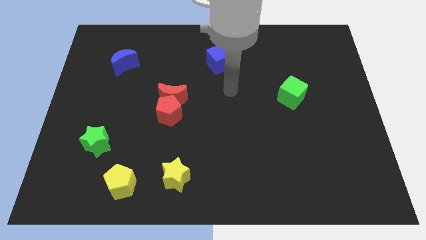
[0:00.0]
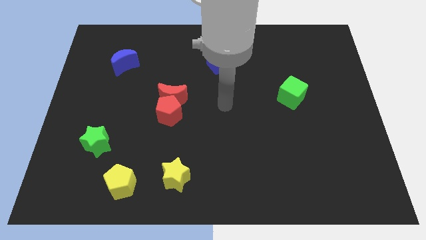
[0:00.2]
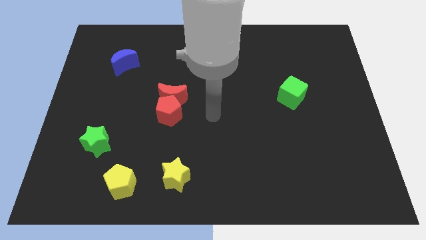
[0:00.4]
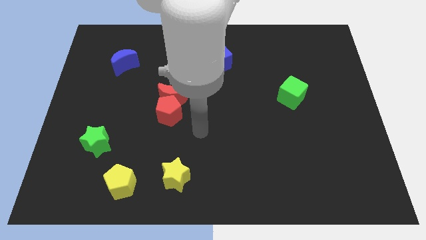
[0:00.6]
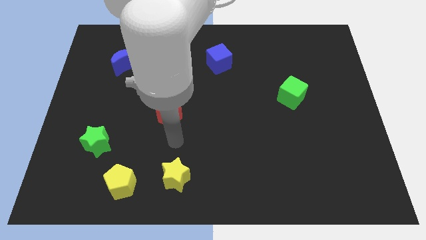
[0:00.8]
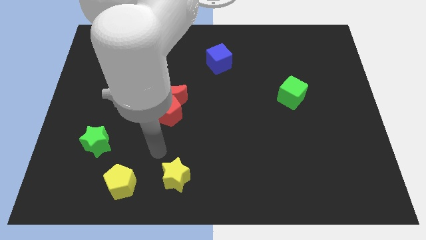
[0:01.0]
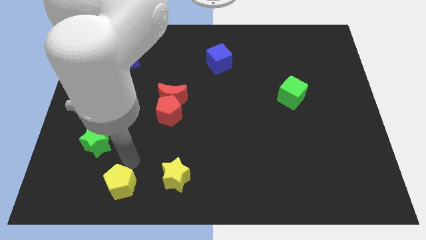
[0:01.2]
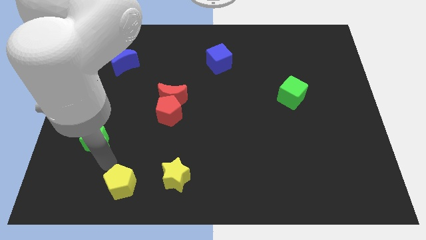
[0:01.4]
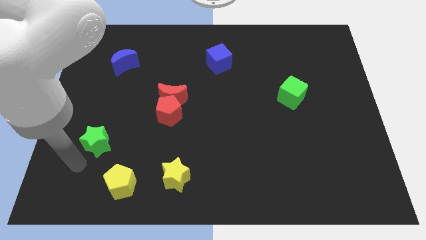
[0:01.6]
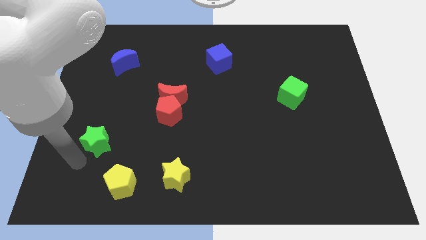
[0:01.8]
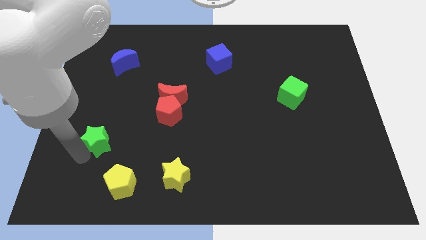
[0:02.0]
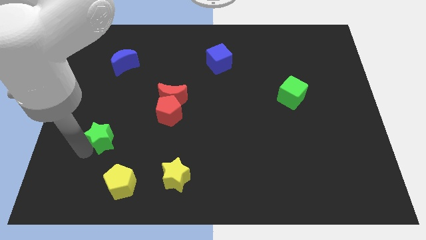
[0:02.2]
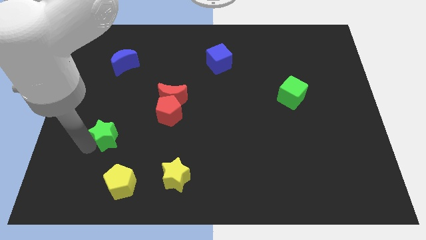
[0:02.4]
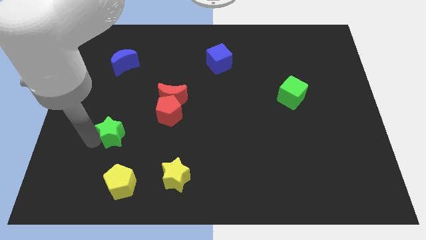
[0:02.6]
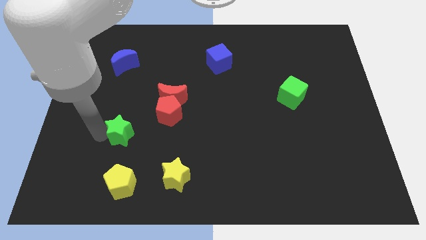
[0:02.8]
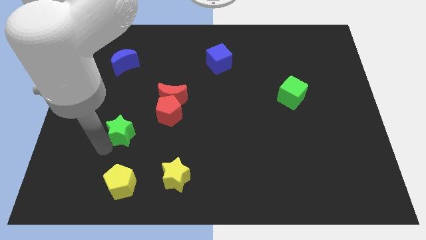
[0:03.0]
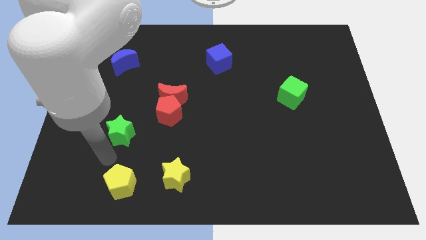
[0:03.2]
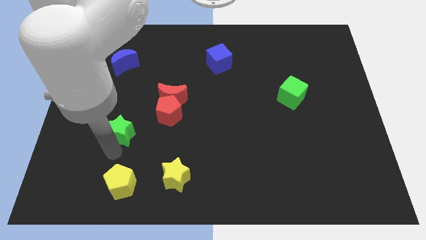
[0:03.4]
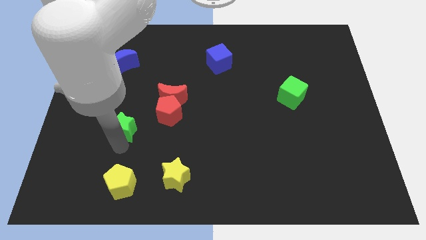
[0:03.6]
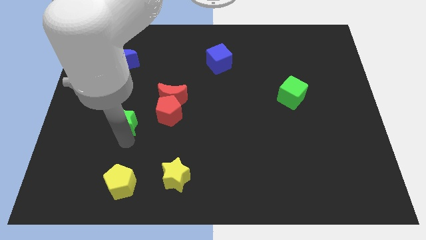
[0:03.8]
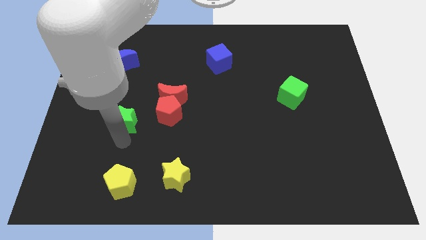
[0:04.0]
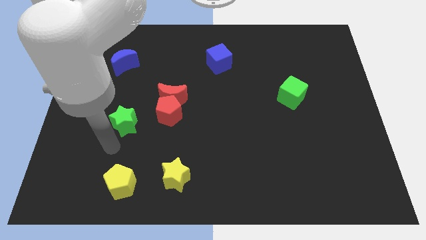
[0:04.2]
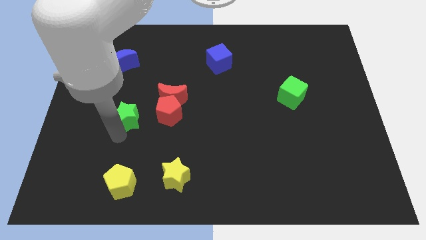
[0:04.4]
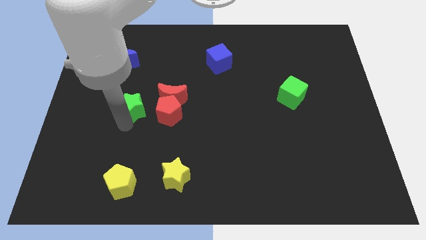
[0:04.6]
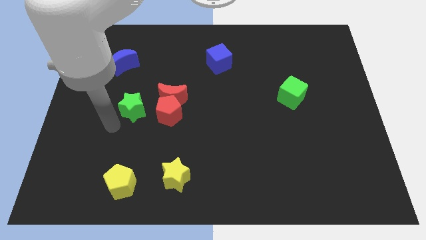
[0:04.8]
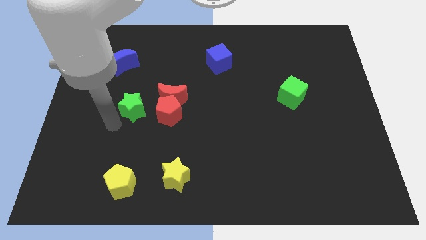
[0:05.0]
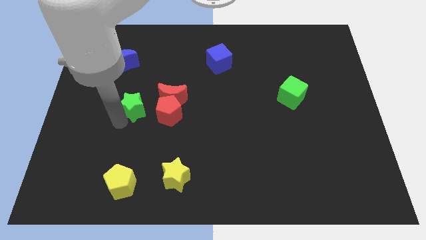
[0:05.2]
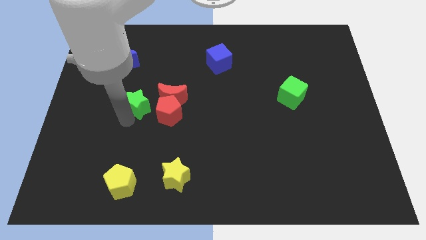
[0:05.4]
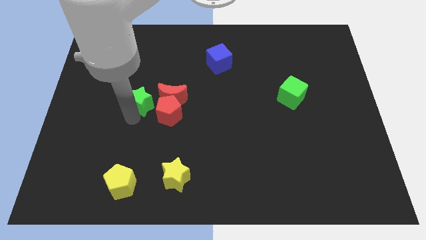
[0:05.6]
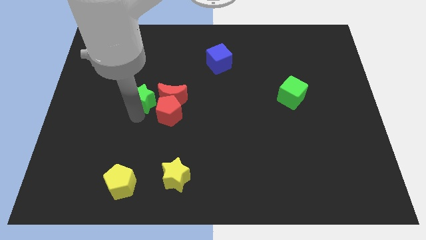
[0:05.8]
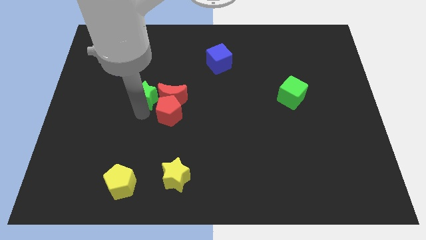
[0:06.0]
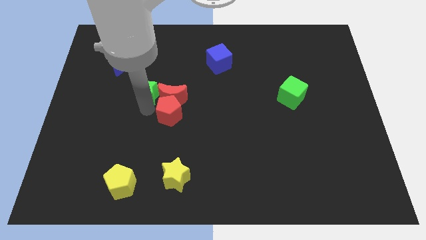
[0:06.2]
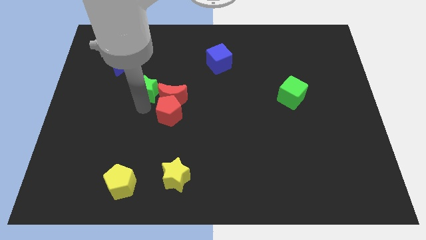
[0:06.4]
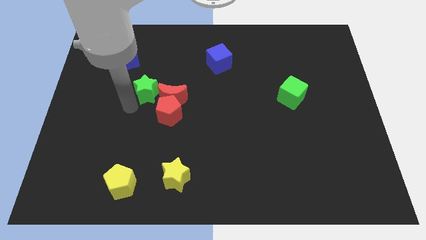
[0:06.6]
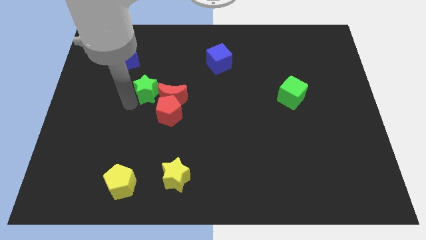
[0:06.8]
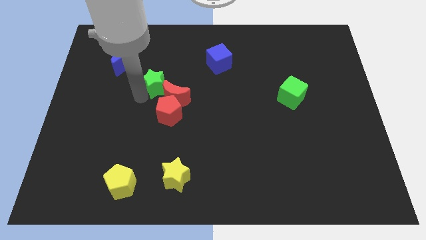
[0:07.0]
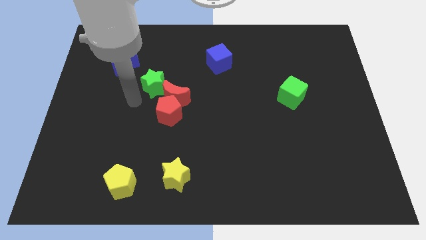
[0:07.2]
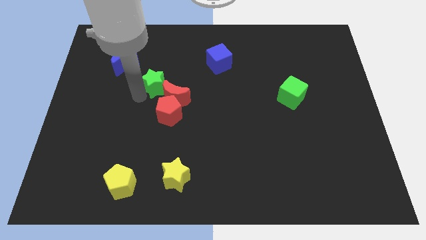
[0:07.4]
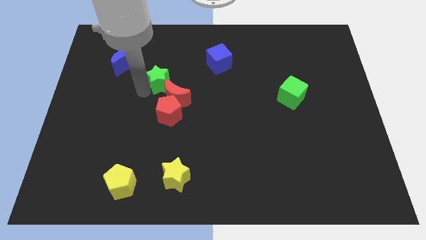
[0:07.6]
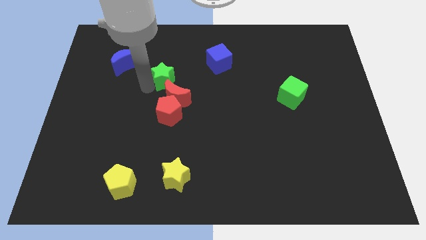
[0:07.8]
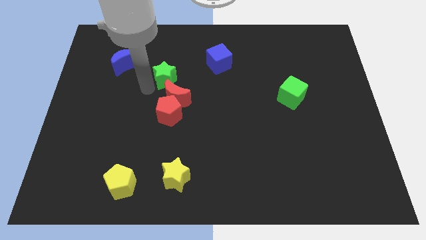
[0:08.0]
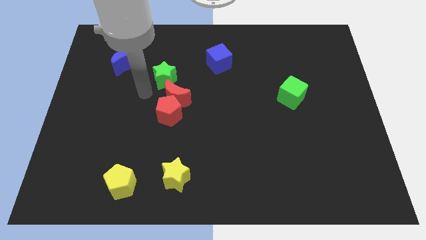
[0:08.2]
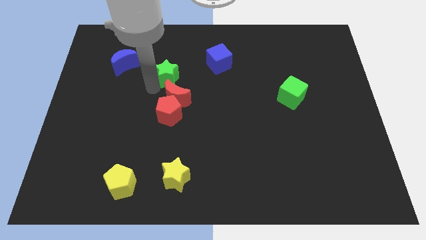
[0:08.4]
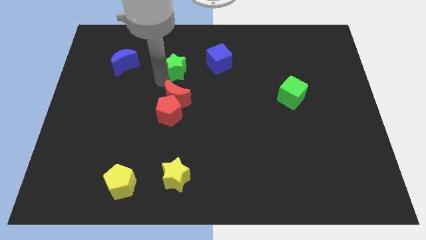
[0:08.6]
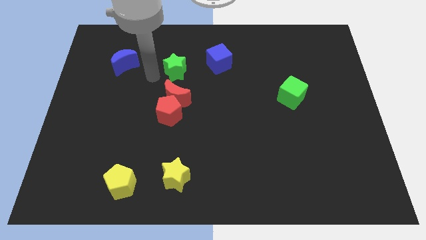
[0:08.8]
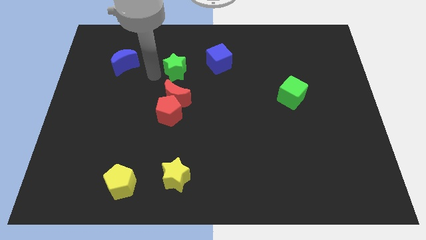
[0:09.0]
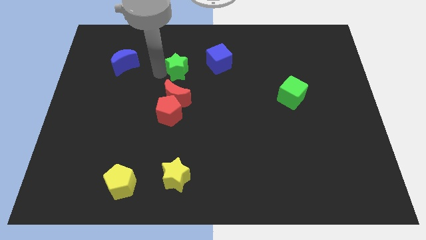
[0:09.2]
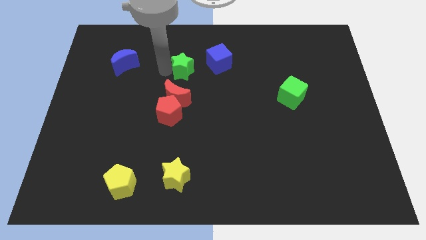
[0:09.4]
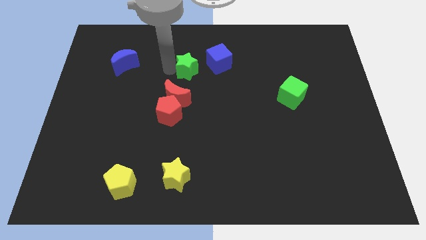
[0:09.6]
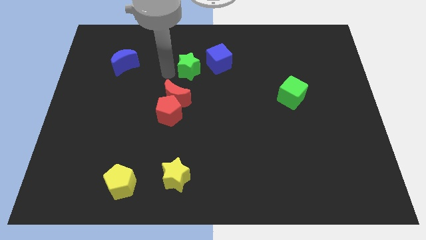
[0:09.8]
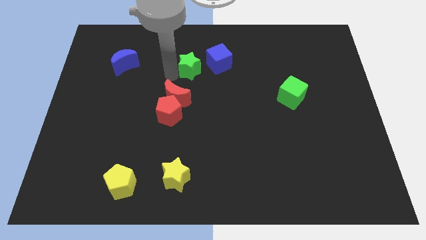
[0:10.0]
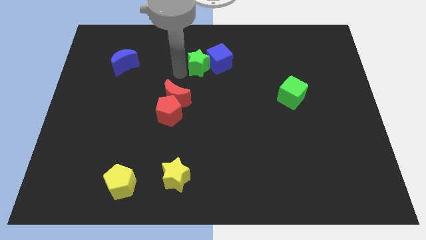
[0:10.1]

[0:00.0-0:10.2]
slide the green star towards the blue cube

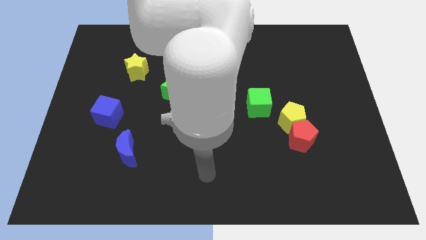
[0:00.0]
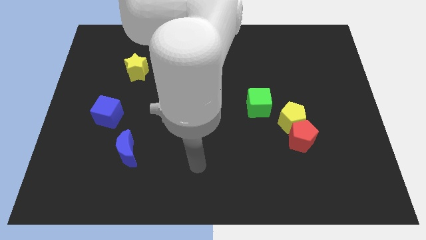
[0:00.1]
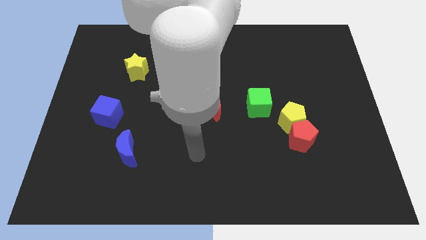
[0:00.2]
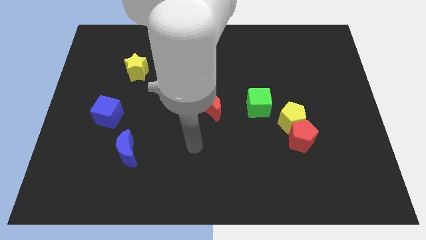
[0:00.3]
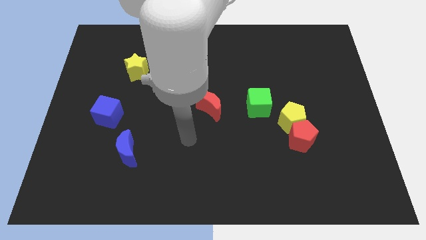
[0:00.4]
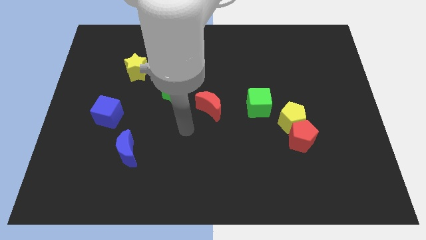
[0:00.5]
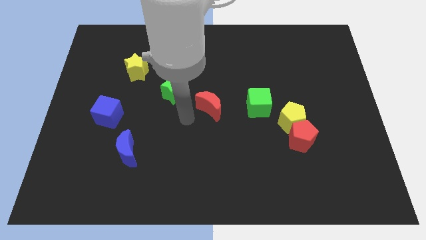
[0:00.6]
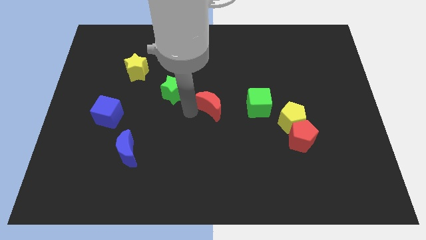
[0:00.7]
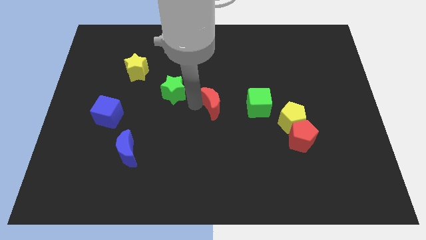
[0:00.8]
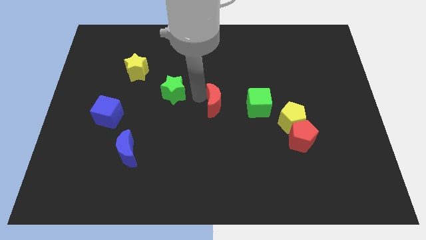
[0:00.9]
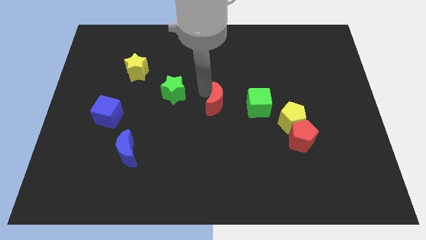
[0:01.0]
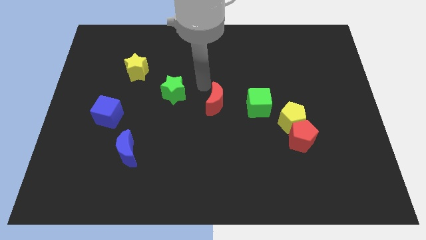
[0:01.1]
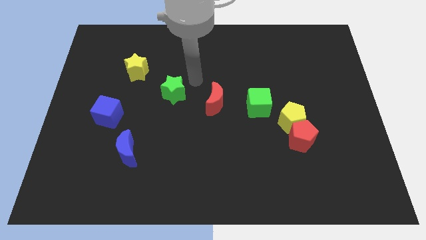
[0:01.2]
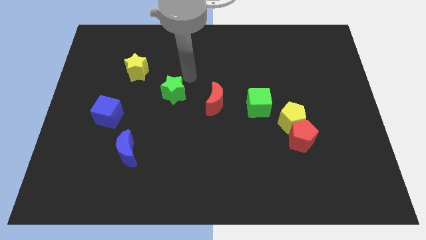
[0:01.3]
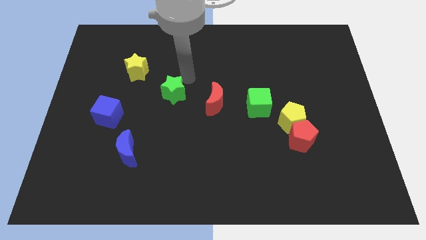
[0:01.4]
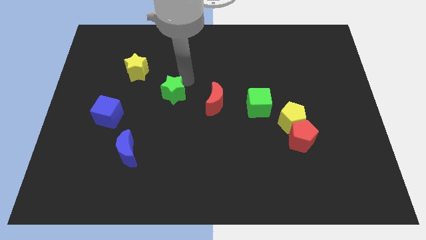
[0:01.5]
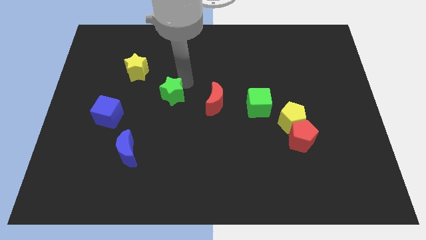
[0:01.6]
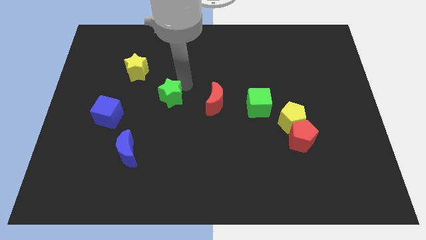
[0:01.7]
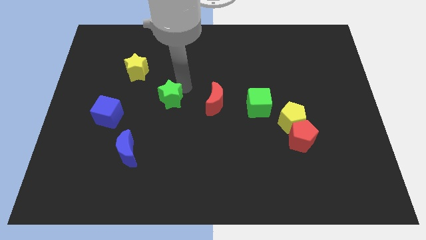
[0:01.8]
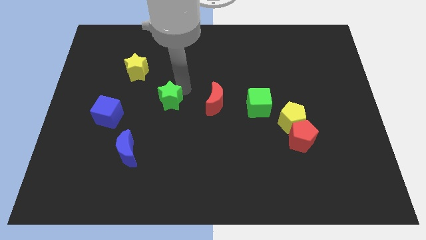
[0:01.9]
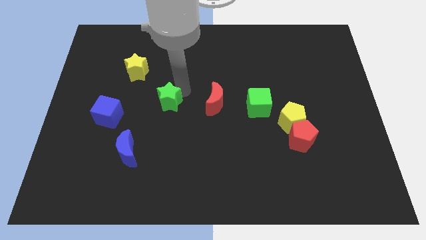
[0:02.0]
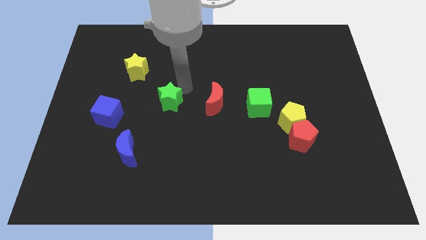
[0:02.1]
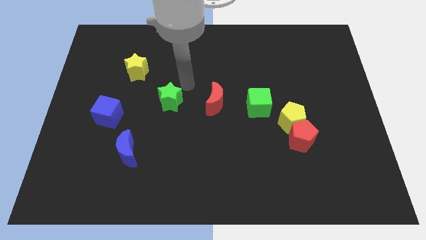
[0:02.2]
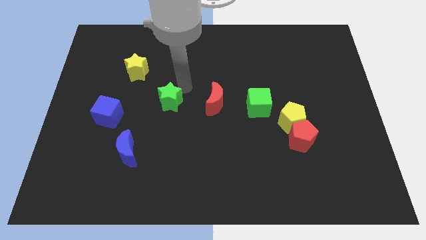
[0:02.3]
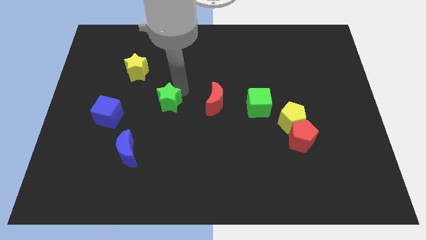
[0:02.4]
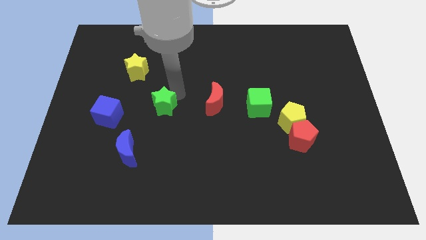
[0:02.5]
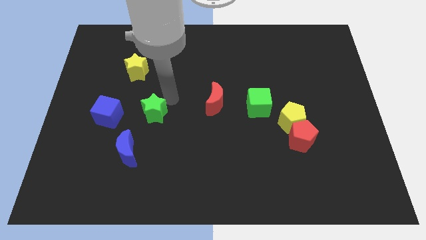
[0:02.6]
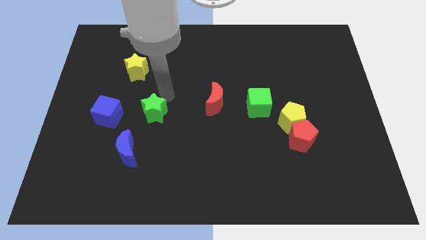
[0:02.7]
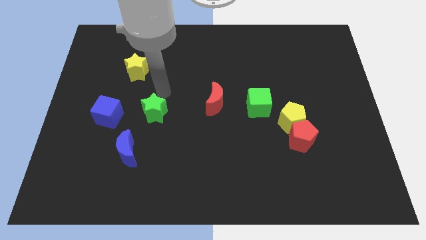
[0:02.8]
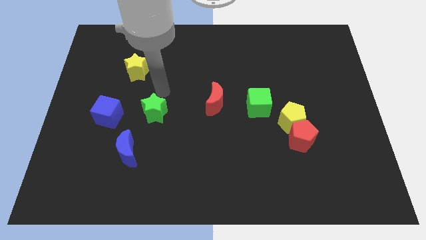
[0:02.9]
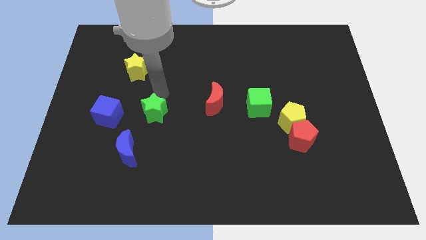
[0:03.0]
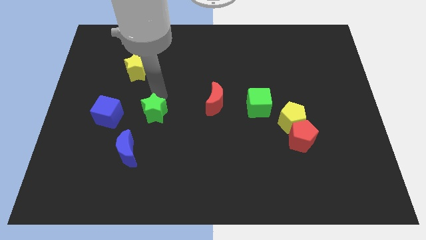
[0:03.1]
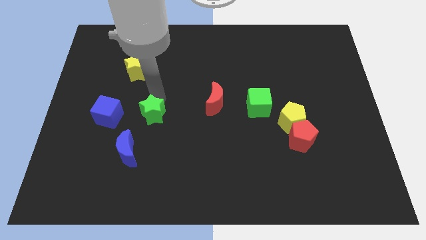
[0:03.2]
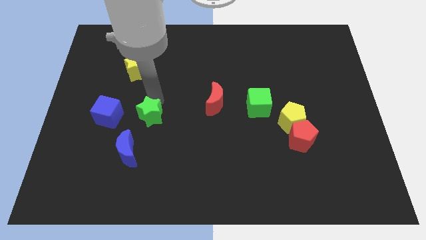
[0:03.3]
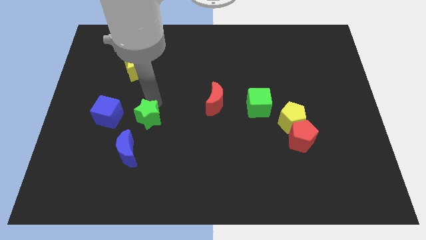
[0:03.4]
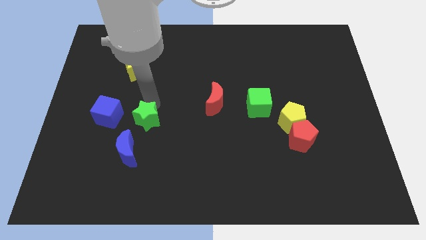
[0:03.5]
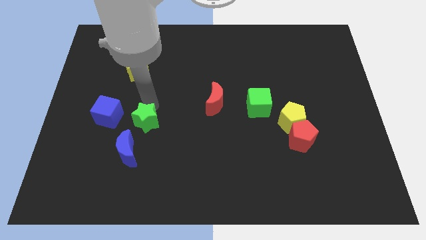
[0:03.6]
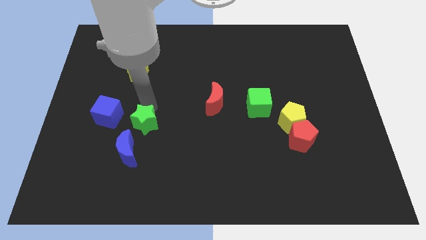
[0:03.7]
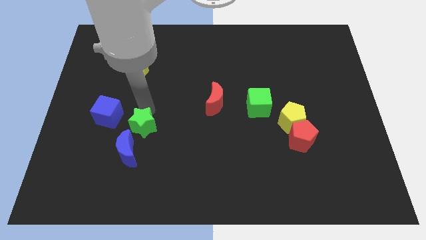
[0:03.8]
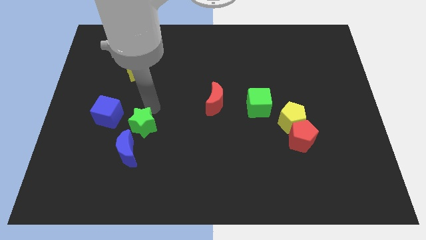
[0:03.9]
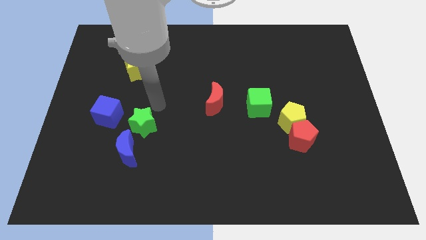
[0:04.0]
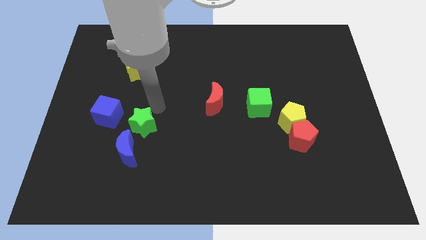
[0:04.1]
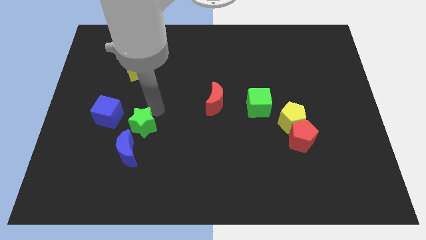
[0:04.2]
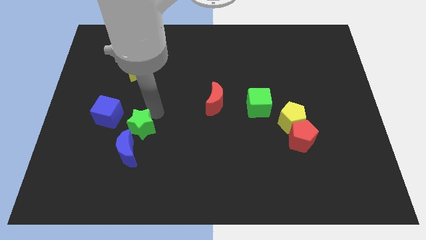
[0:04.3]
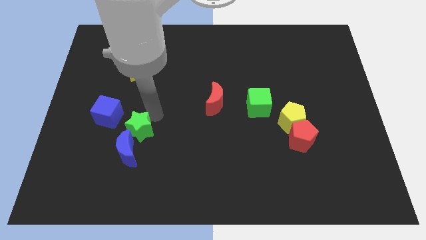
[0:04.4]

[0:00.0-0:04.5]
slide the green star towards the blue moon
